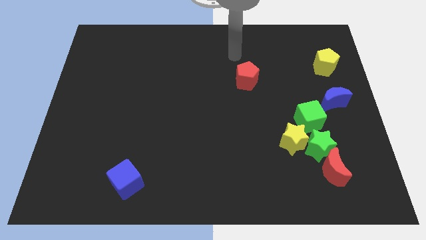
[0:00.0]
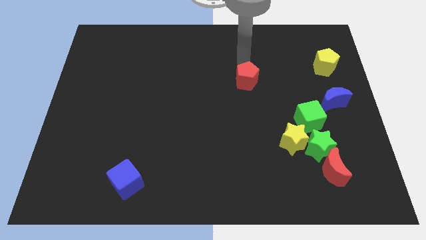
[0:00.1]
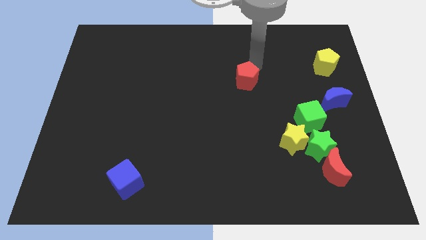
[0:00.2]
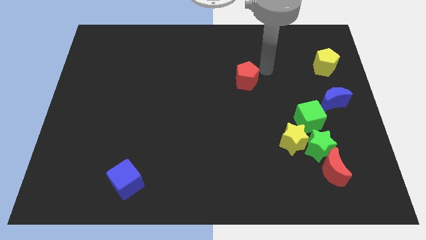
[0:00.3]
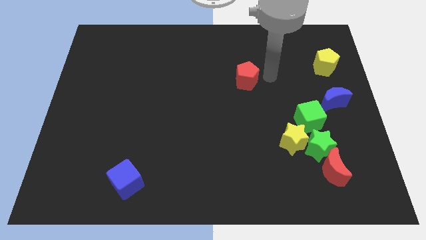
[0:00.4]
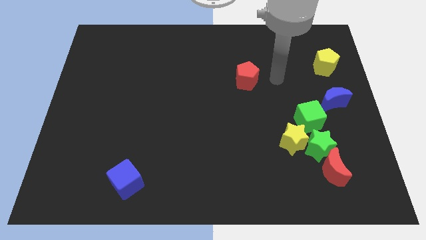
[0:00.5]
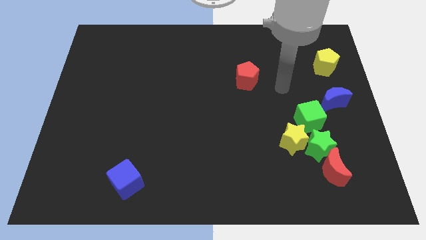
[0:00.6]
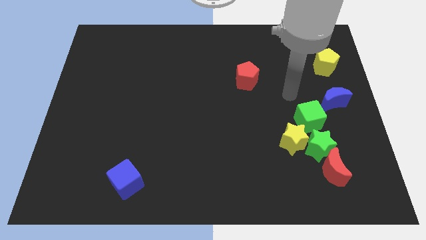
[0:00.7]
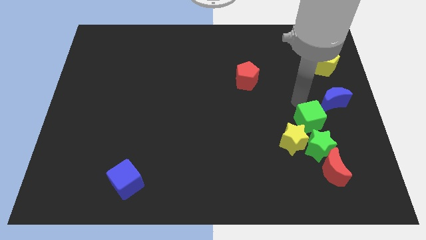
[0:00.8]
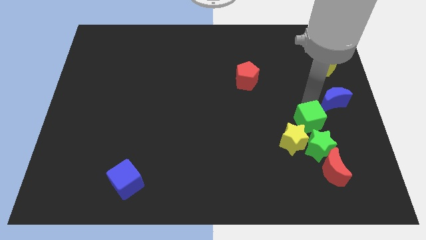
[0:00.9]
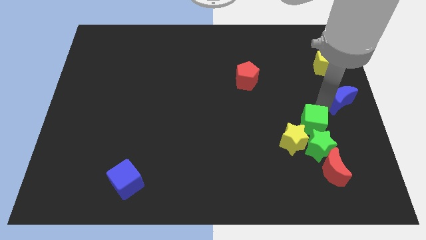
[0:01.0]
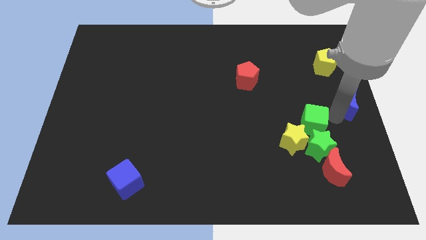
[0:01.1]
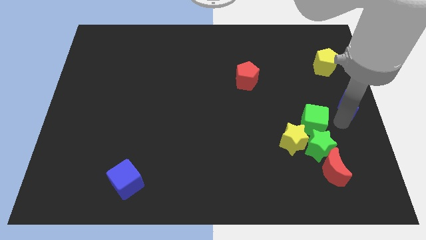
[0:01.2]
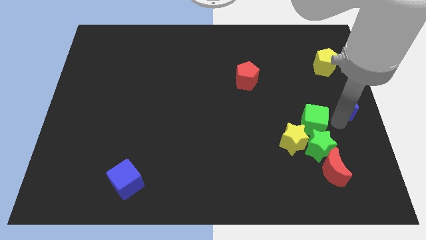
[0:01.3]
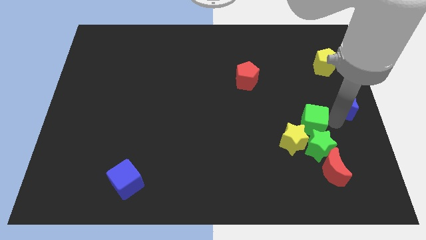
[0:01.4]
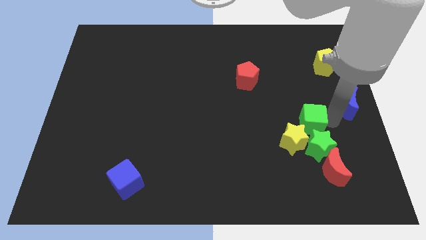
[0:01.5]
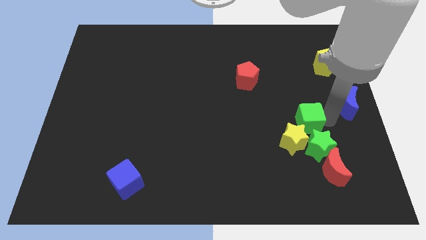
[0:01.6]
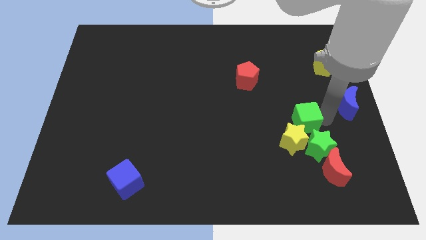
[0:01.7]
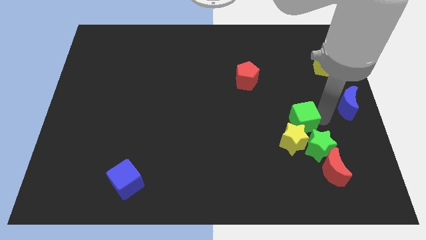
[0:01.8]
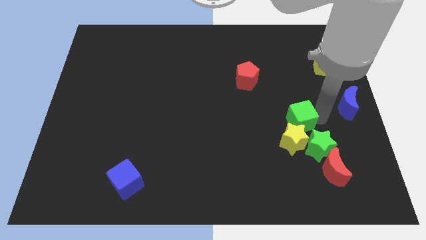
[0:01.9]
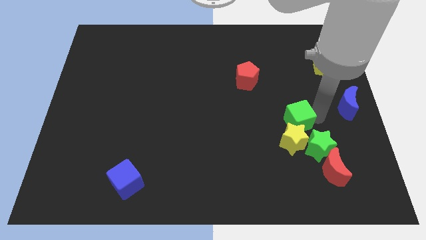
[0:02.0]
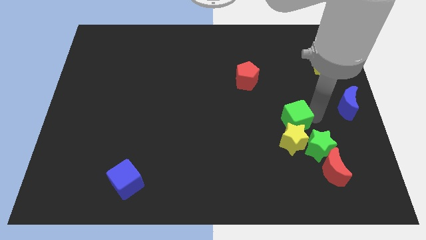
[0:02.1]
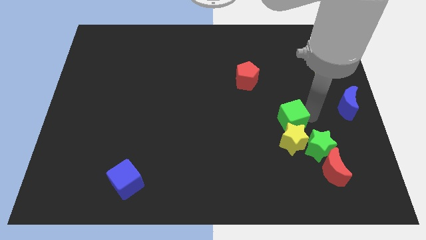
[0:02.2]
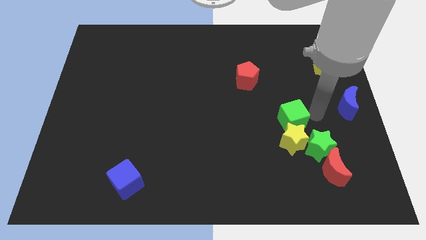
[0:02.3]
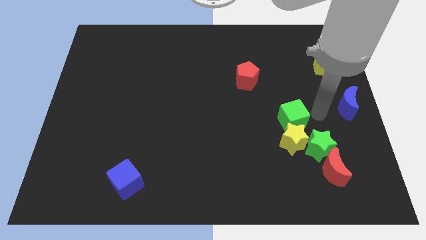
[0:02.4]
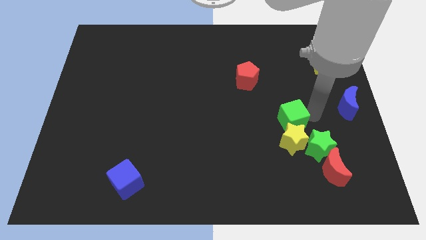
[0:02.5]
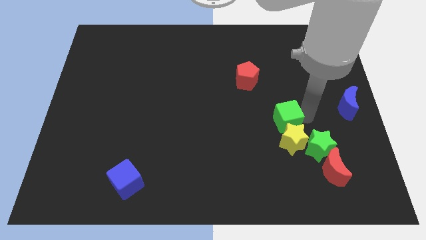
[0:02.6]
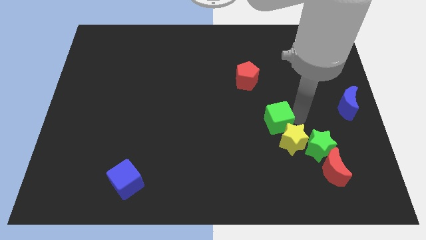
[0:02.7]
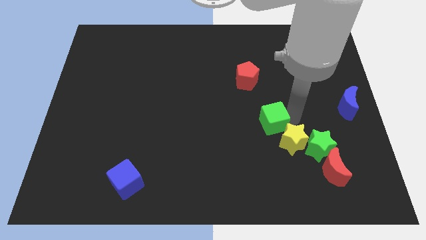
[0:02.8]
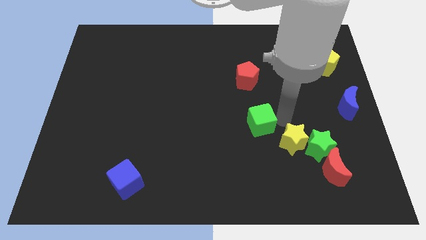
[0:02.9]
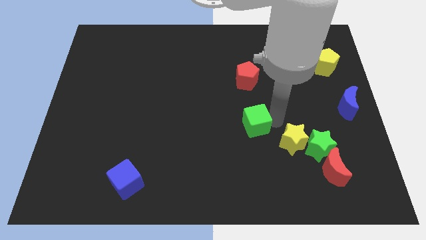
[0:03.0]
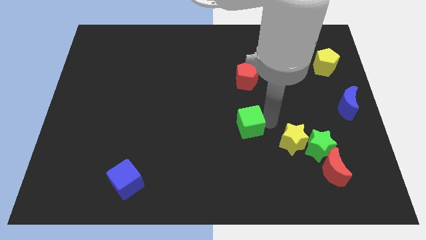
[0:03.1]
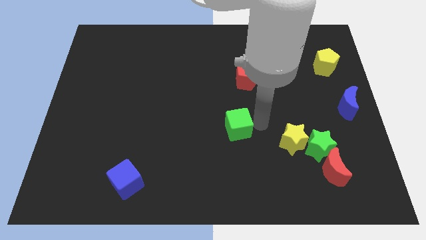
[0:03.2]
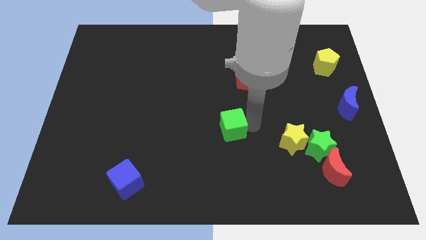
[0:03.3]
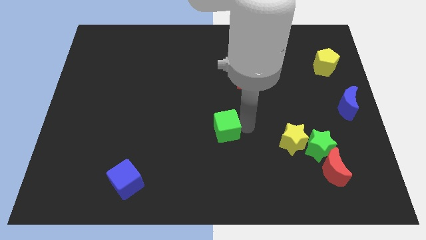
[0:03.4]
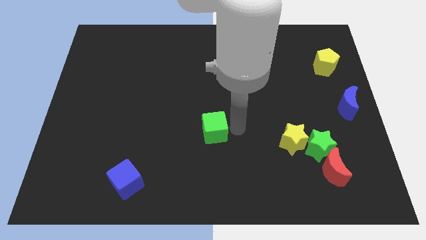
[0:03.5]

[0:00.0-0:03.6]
slide the green cube left

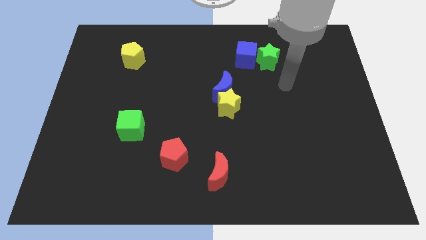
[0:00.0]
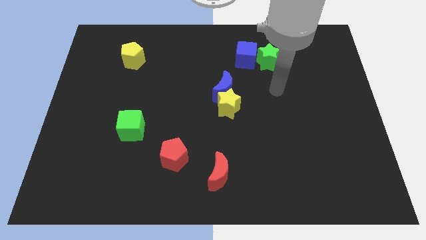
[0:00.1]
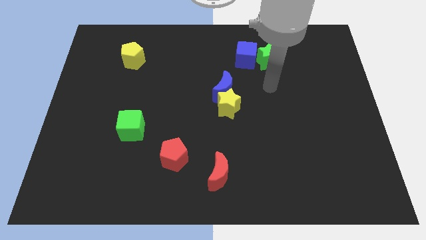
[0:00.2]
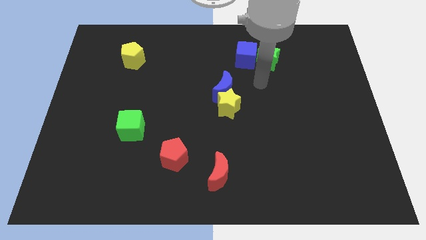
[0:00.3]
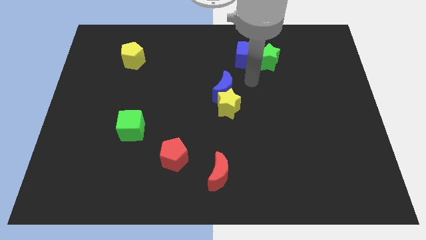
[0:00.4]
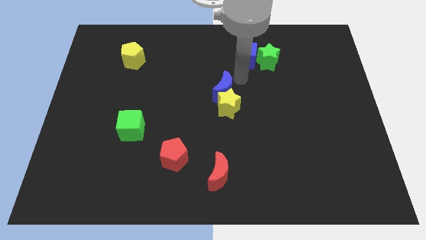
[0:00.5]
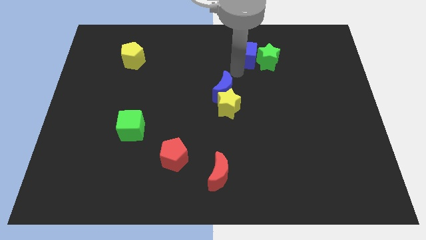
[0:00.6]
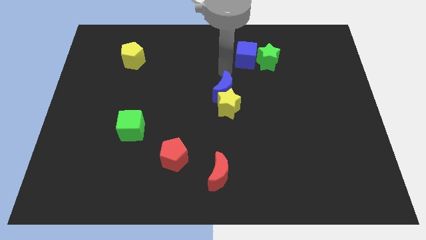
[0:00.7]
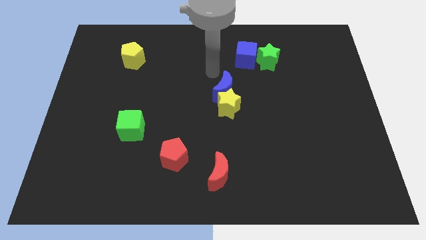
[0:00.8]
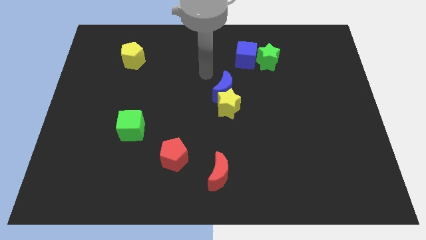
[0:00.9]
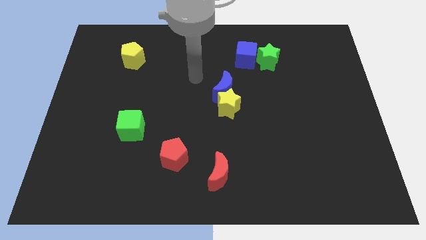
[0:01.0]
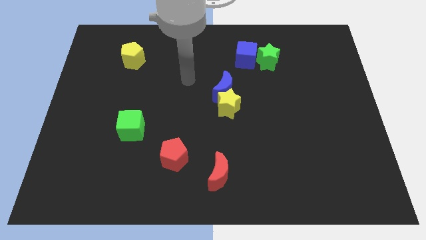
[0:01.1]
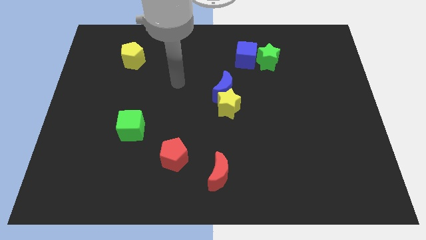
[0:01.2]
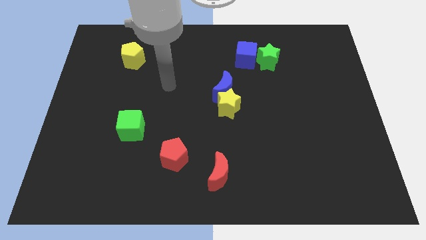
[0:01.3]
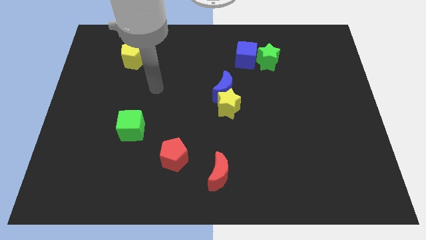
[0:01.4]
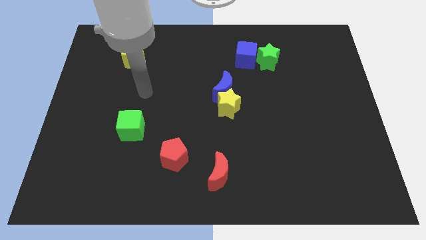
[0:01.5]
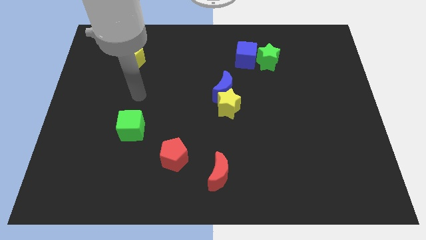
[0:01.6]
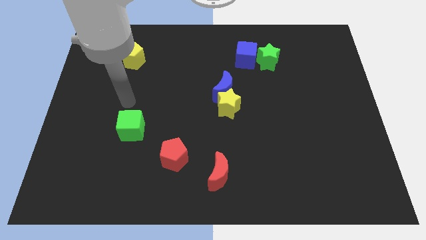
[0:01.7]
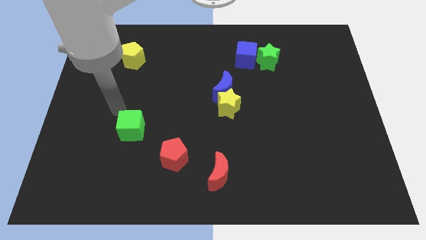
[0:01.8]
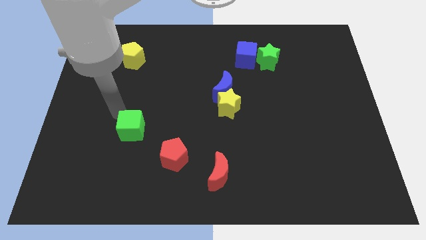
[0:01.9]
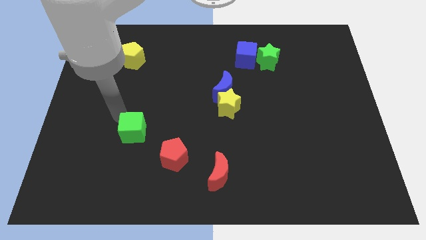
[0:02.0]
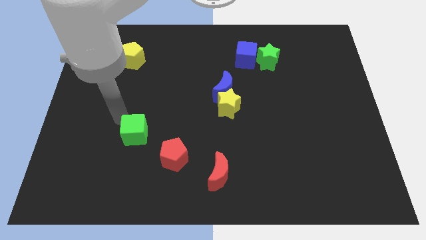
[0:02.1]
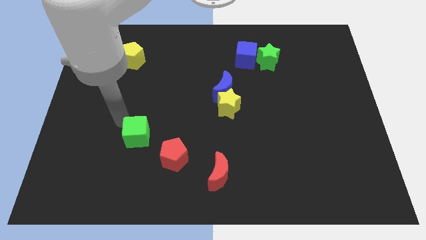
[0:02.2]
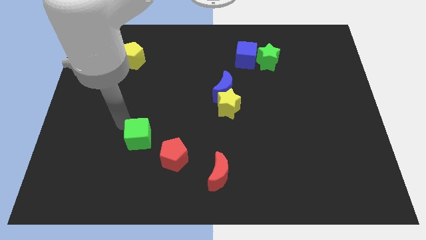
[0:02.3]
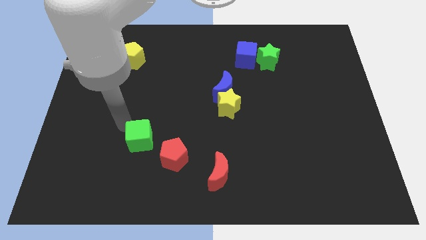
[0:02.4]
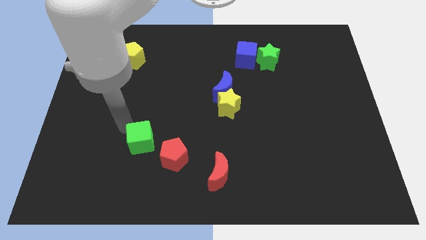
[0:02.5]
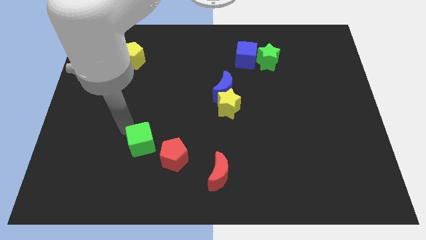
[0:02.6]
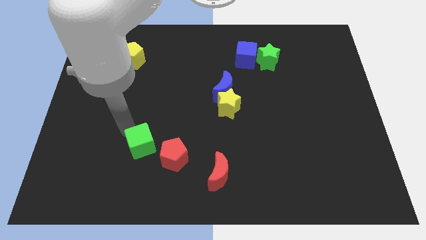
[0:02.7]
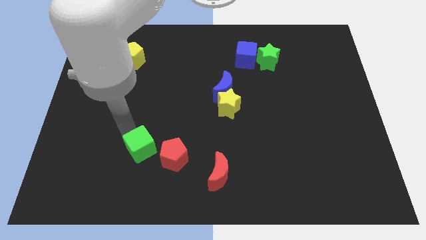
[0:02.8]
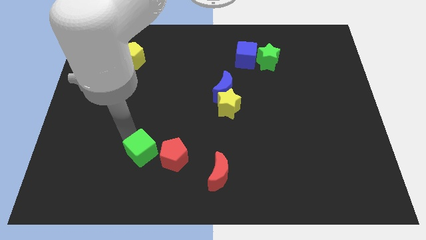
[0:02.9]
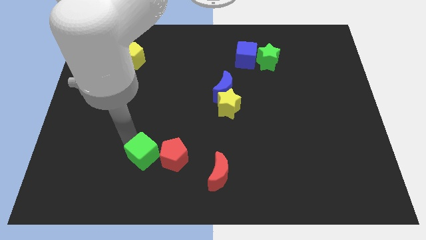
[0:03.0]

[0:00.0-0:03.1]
push the green cube a little down and then to the right

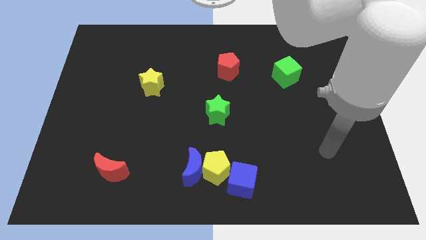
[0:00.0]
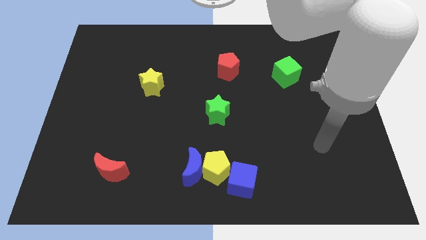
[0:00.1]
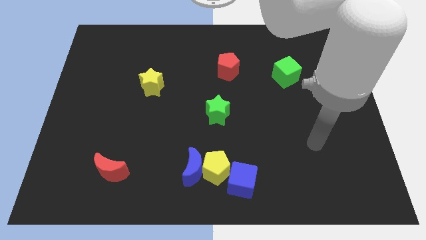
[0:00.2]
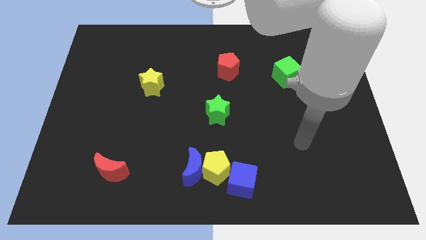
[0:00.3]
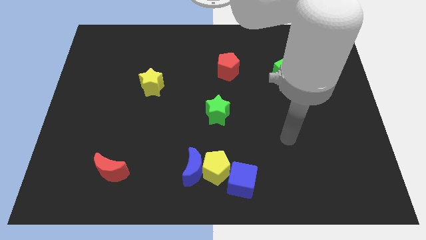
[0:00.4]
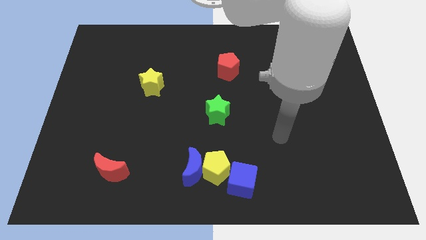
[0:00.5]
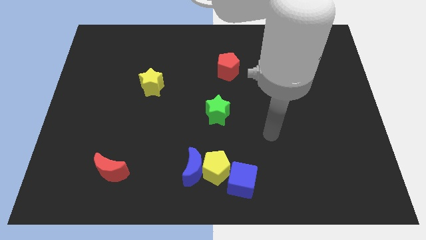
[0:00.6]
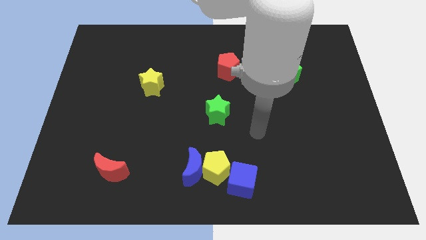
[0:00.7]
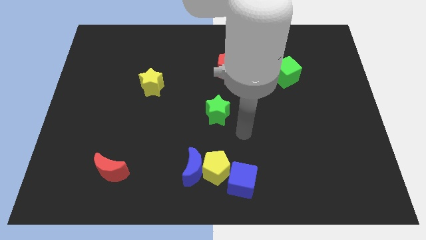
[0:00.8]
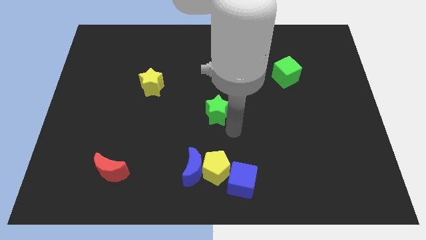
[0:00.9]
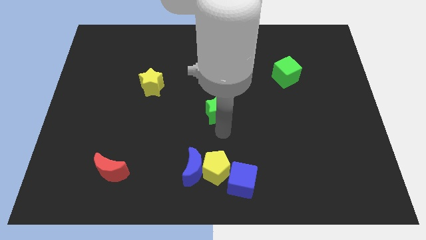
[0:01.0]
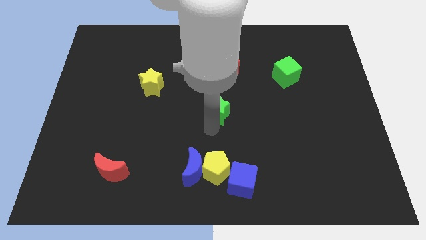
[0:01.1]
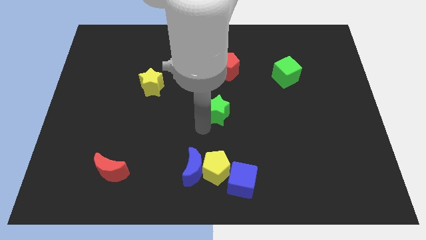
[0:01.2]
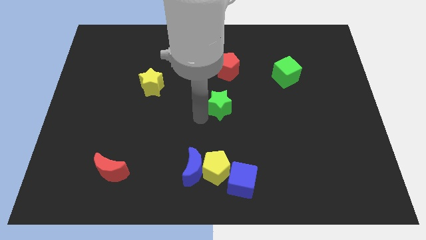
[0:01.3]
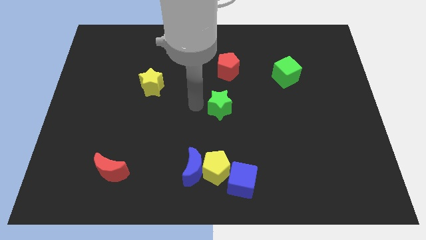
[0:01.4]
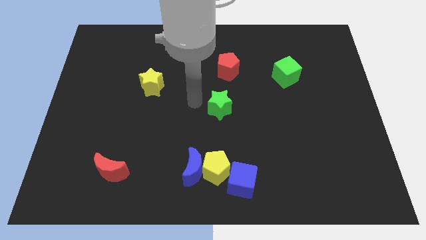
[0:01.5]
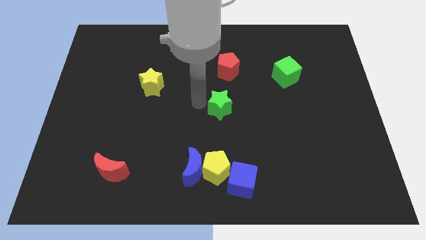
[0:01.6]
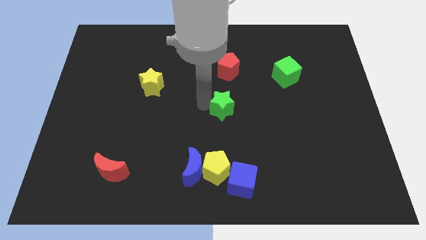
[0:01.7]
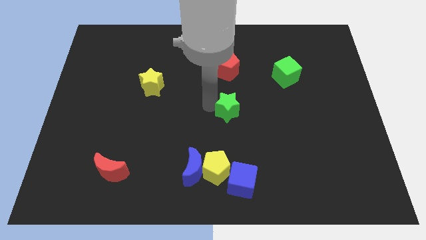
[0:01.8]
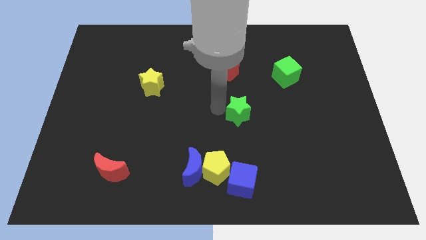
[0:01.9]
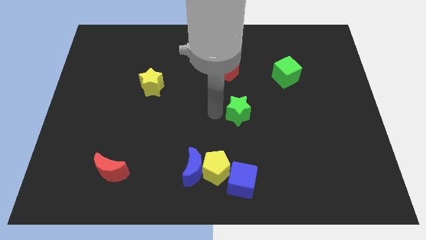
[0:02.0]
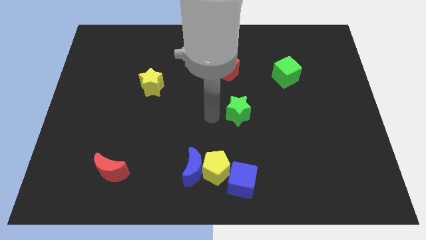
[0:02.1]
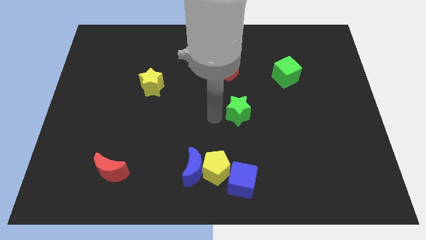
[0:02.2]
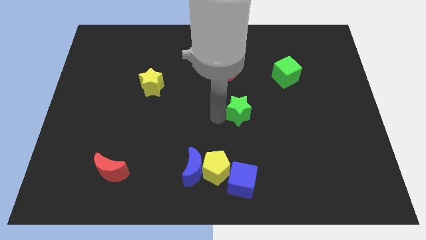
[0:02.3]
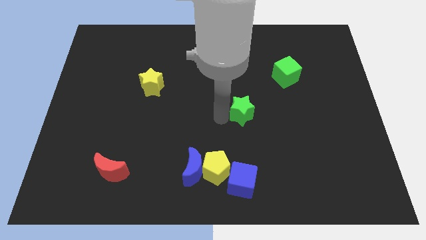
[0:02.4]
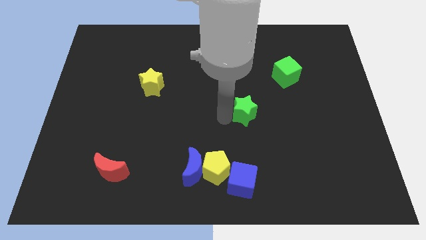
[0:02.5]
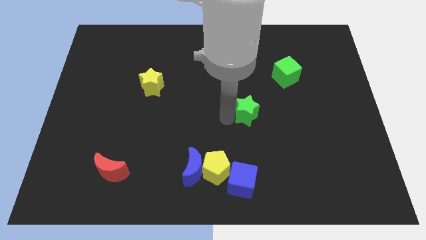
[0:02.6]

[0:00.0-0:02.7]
push the green star to the right a little
